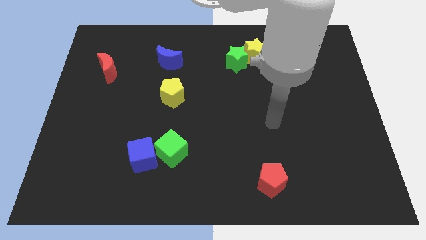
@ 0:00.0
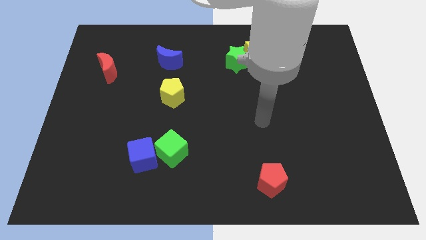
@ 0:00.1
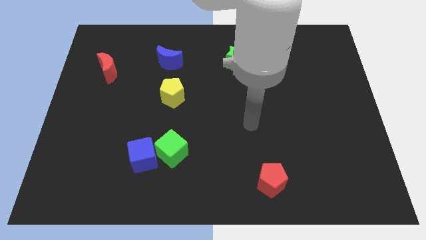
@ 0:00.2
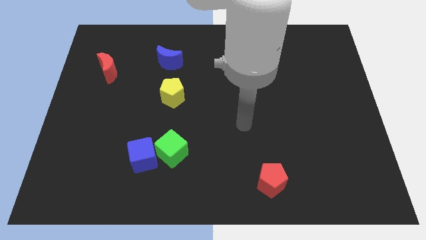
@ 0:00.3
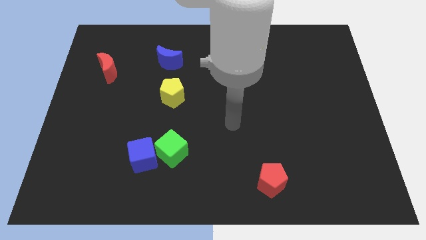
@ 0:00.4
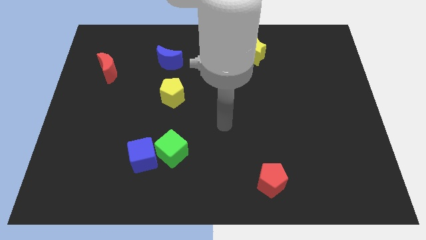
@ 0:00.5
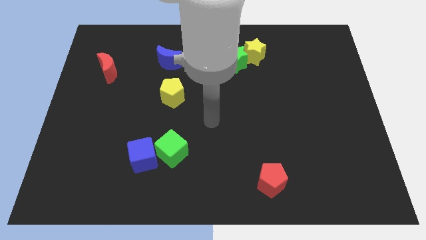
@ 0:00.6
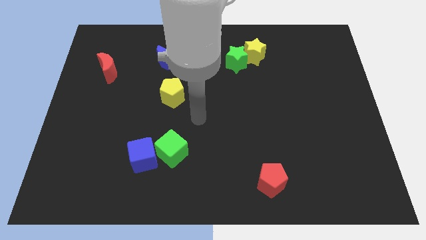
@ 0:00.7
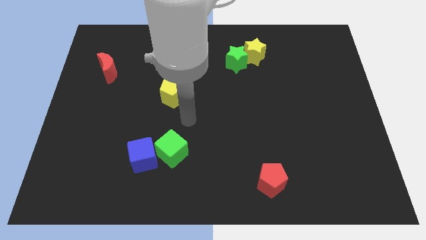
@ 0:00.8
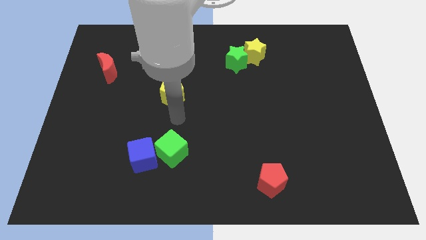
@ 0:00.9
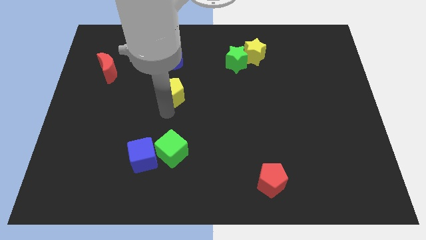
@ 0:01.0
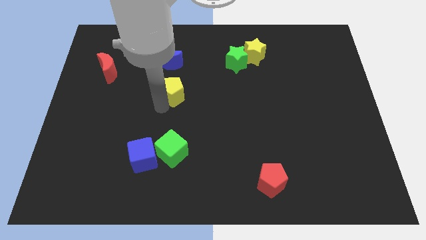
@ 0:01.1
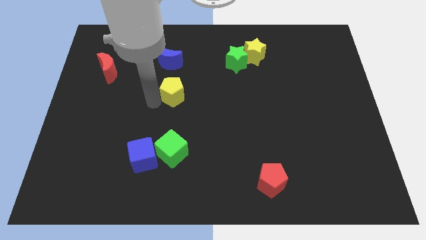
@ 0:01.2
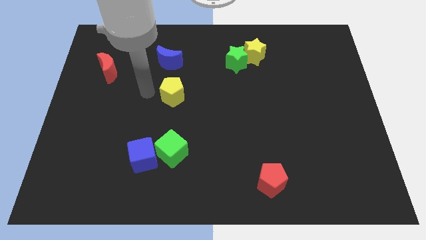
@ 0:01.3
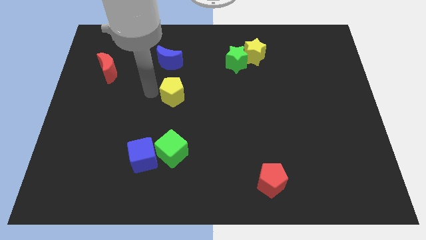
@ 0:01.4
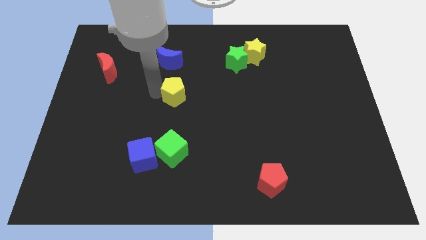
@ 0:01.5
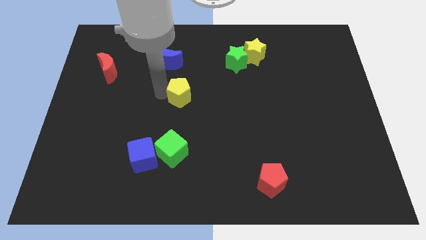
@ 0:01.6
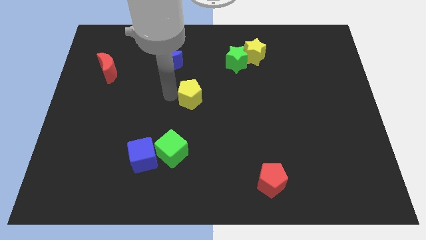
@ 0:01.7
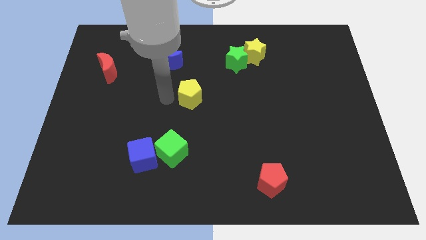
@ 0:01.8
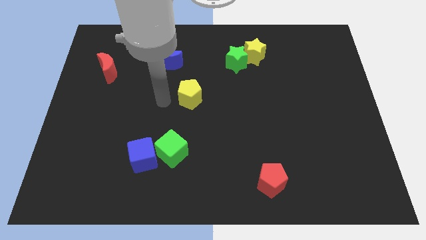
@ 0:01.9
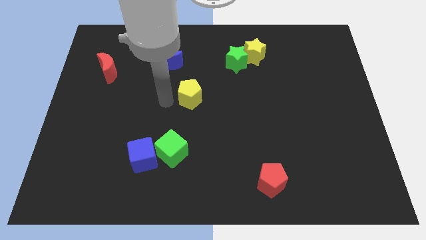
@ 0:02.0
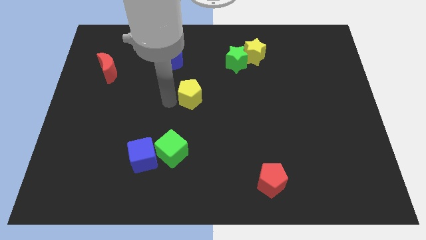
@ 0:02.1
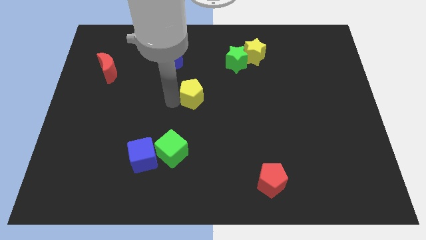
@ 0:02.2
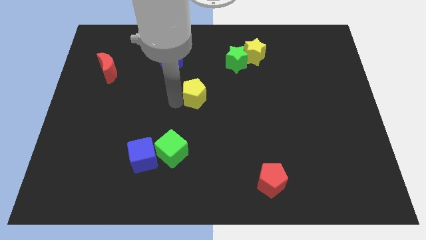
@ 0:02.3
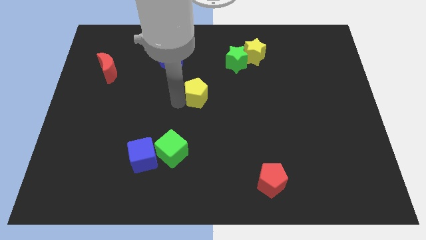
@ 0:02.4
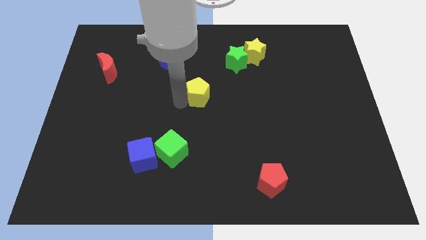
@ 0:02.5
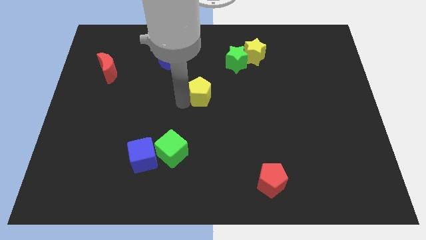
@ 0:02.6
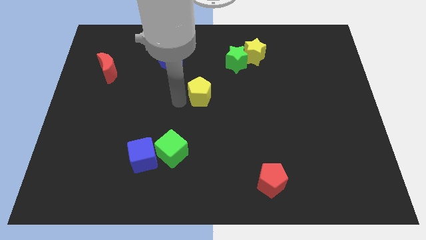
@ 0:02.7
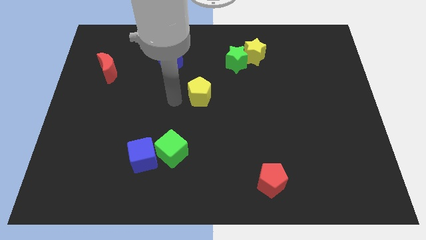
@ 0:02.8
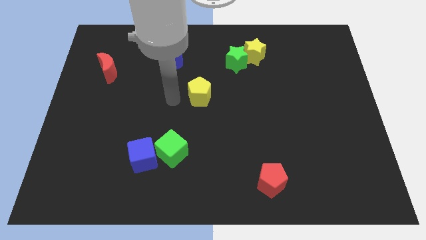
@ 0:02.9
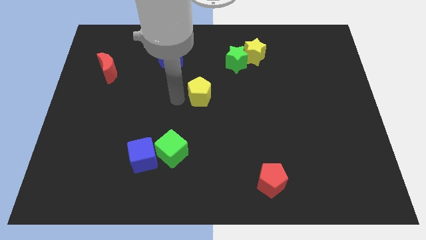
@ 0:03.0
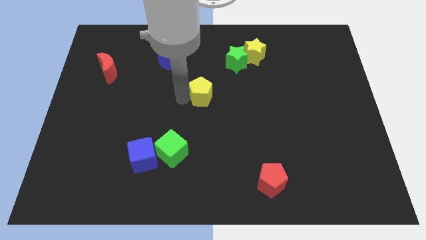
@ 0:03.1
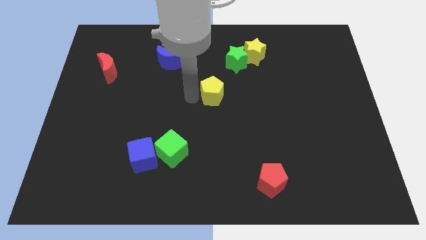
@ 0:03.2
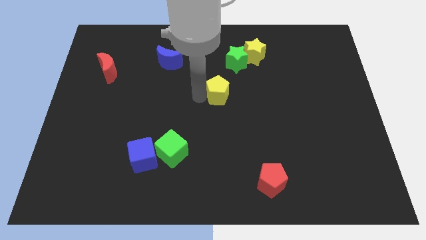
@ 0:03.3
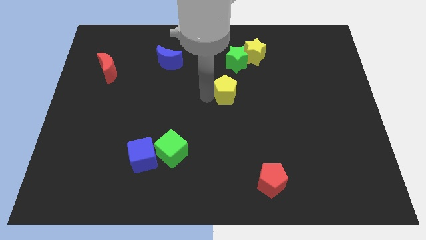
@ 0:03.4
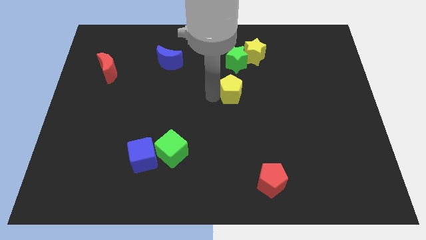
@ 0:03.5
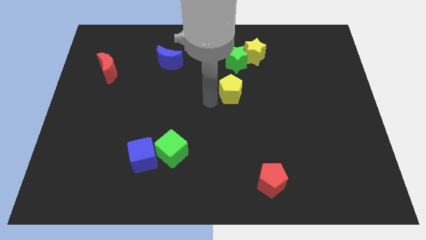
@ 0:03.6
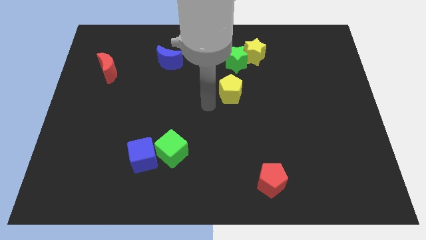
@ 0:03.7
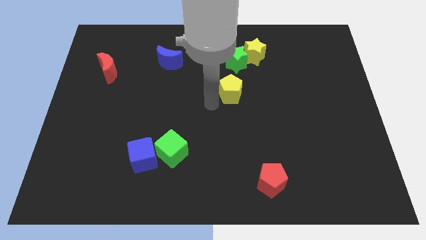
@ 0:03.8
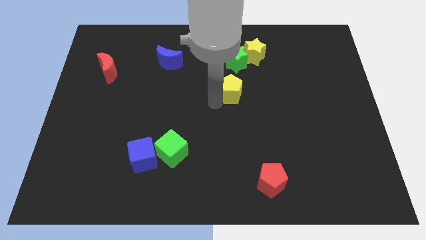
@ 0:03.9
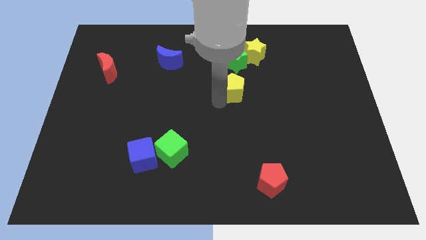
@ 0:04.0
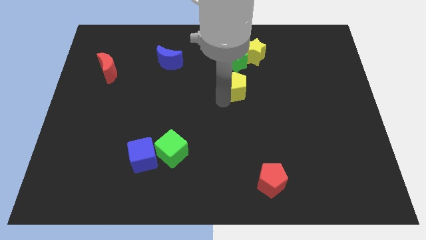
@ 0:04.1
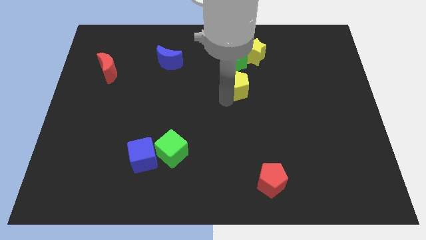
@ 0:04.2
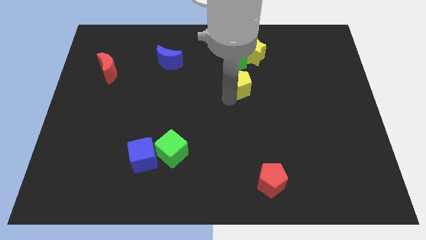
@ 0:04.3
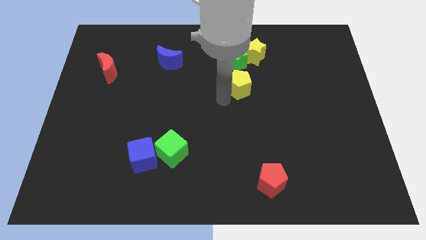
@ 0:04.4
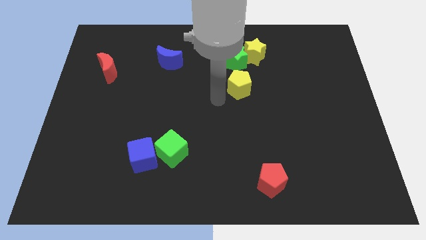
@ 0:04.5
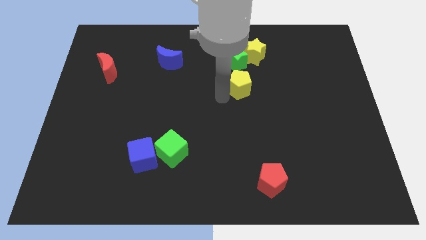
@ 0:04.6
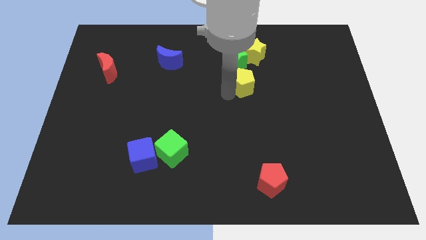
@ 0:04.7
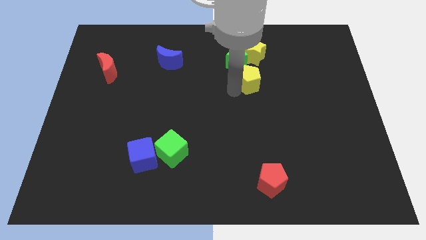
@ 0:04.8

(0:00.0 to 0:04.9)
push the yellow pentagon diagonally down and to the right of the green star
